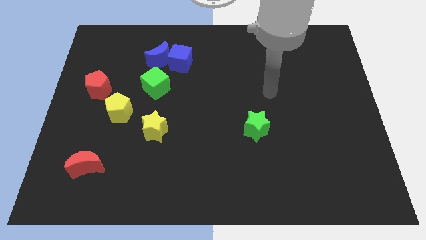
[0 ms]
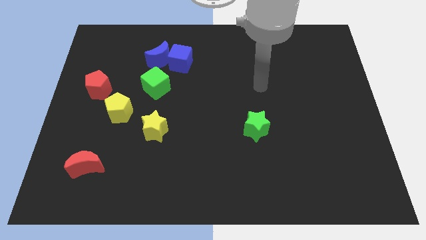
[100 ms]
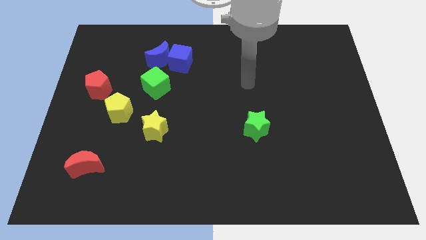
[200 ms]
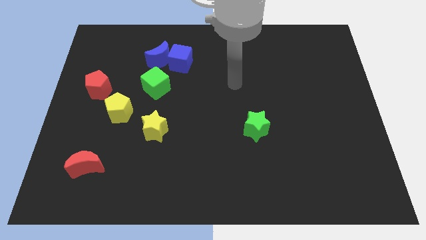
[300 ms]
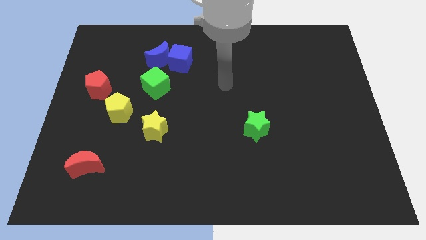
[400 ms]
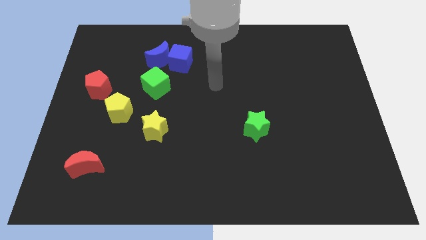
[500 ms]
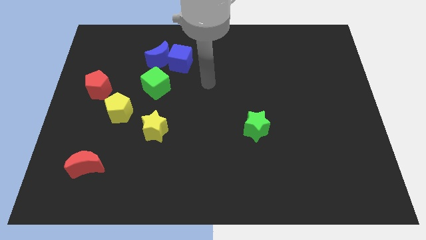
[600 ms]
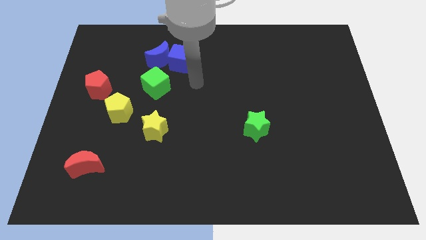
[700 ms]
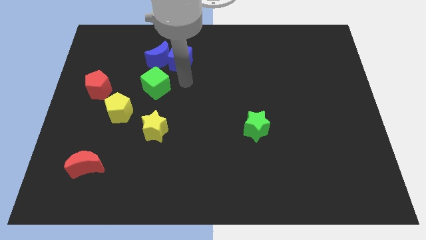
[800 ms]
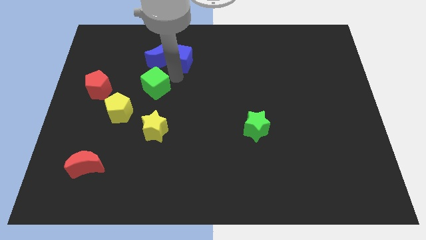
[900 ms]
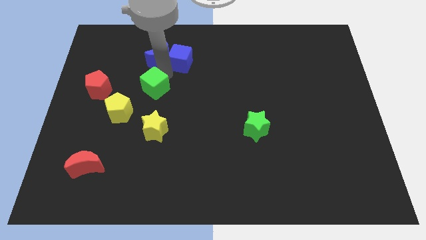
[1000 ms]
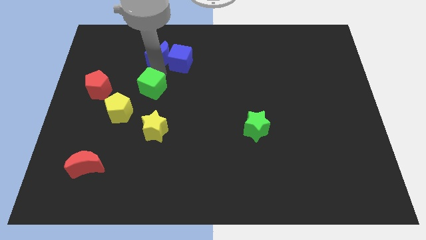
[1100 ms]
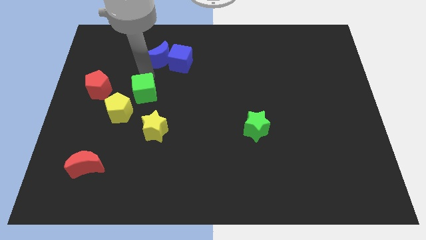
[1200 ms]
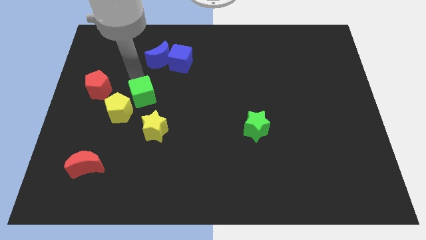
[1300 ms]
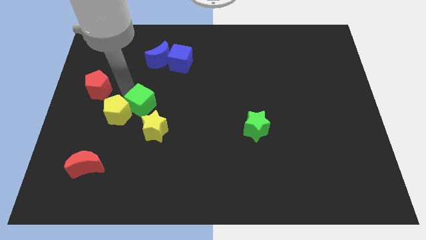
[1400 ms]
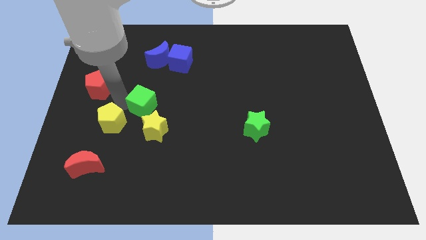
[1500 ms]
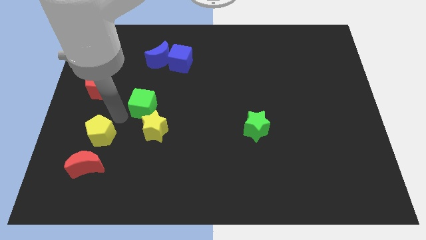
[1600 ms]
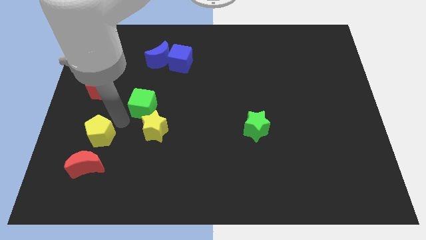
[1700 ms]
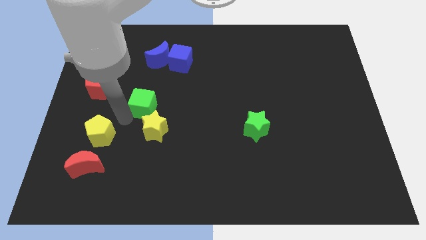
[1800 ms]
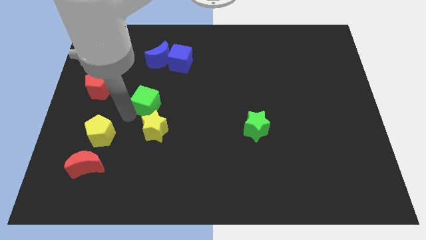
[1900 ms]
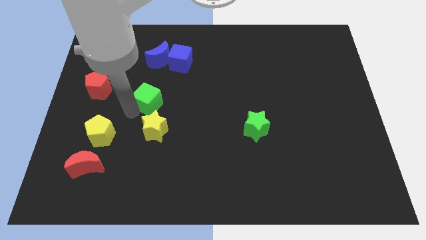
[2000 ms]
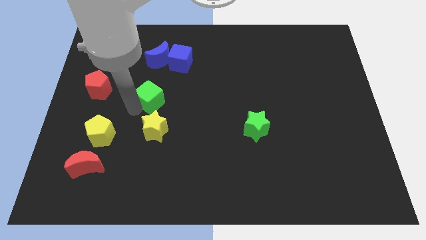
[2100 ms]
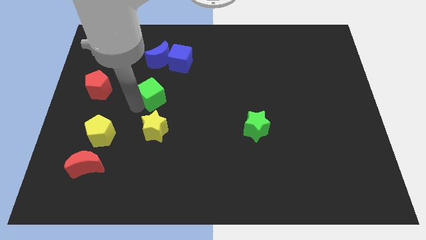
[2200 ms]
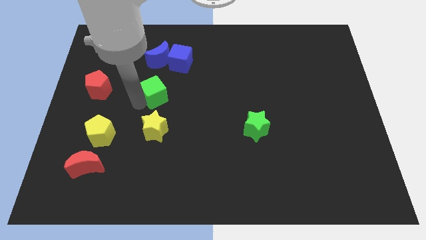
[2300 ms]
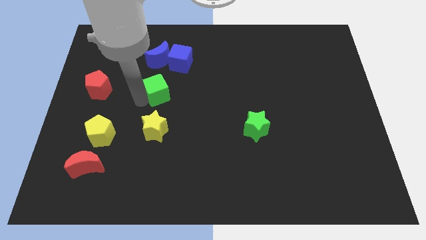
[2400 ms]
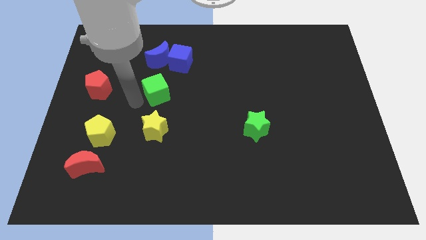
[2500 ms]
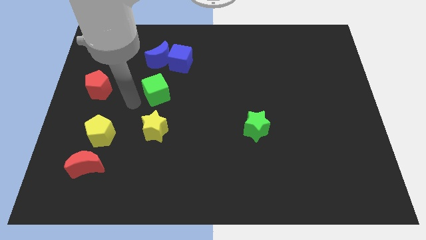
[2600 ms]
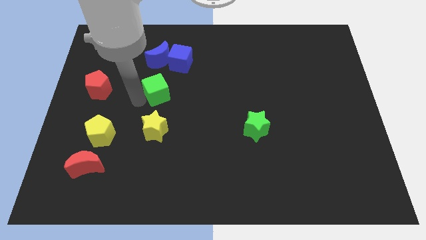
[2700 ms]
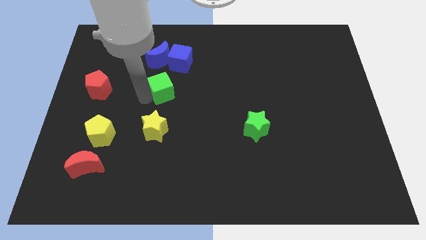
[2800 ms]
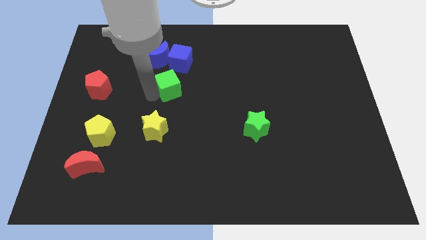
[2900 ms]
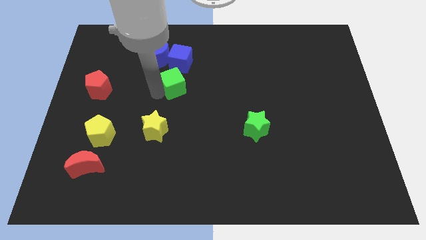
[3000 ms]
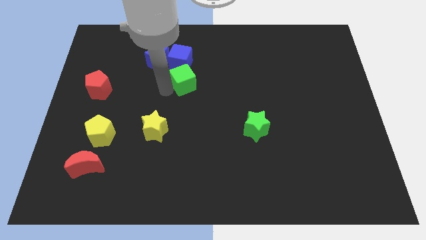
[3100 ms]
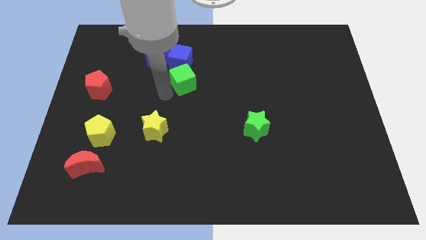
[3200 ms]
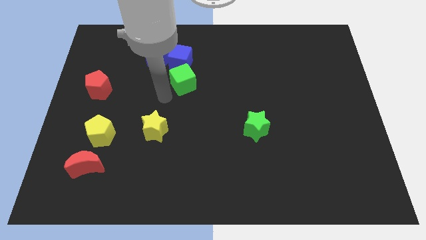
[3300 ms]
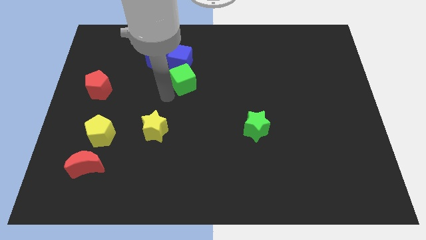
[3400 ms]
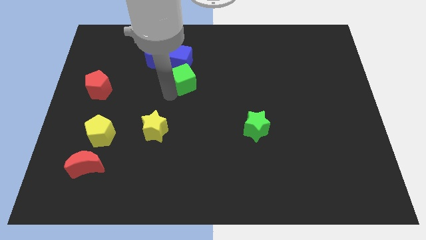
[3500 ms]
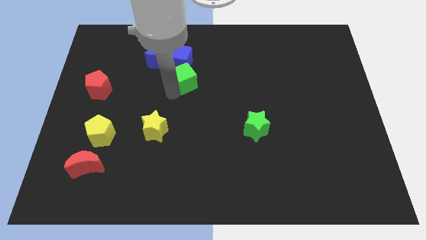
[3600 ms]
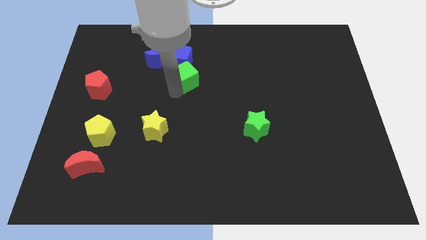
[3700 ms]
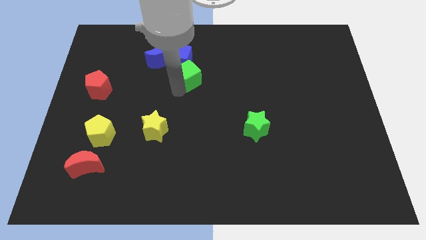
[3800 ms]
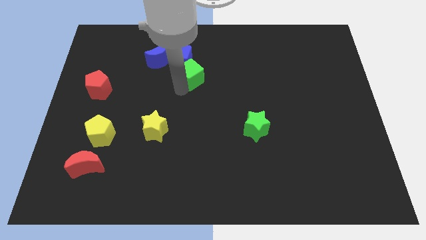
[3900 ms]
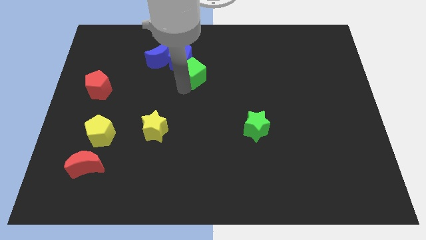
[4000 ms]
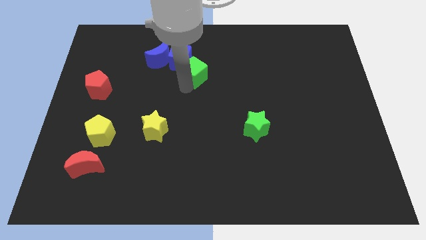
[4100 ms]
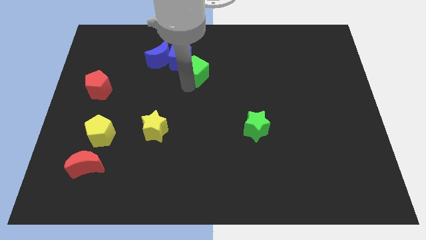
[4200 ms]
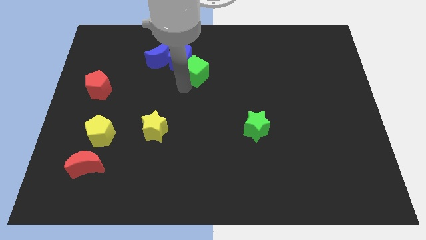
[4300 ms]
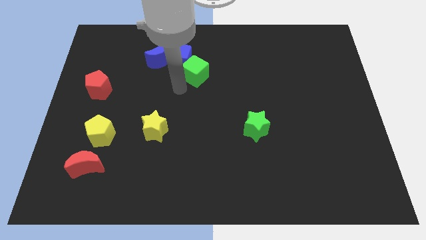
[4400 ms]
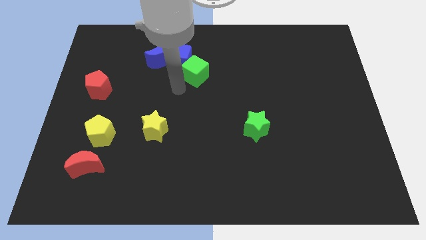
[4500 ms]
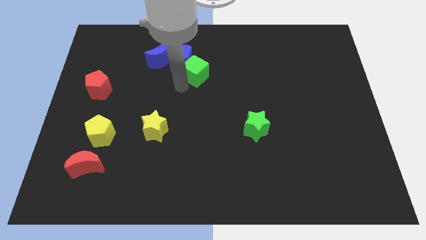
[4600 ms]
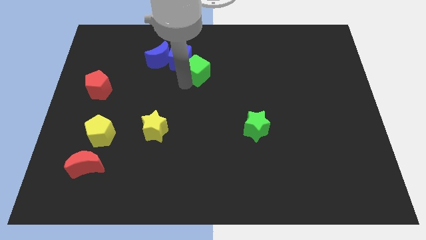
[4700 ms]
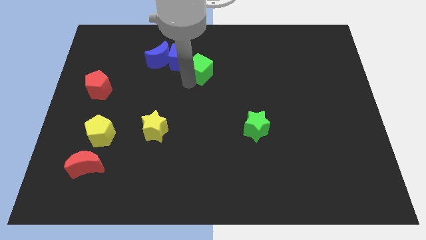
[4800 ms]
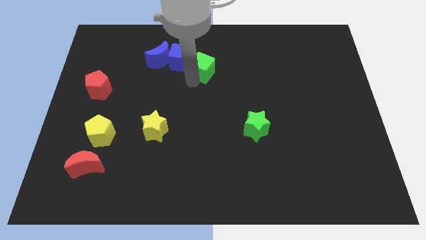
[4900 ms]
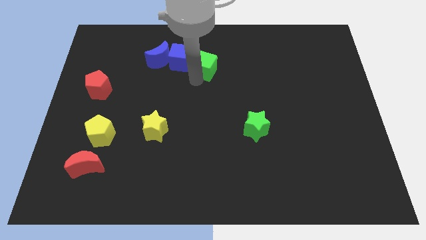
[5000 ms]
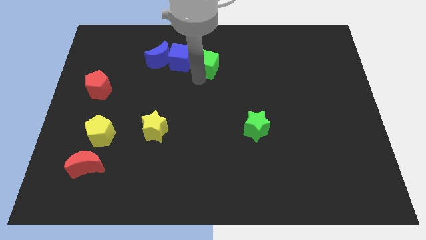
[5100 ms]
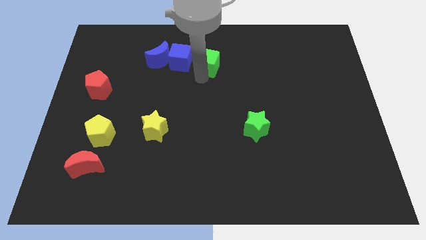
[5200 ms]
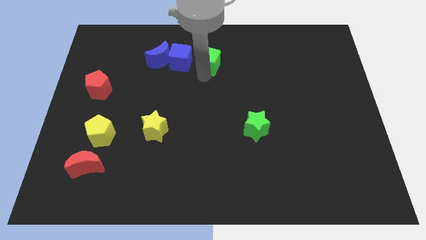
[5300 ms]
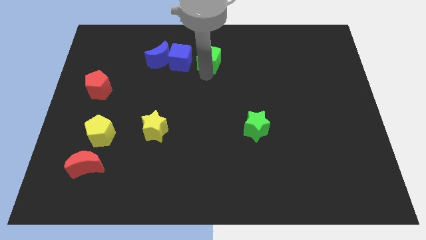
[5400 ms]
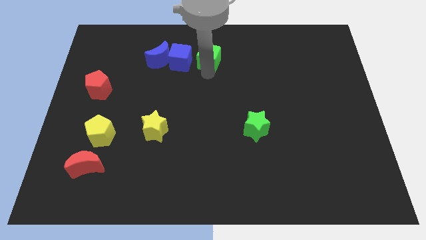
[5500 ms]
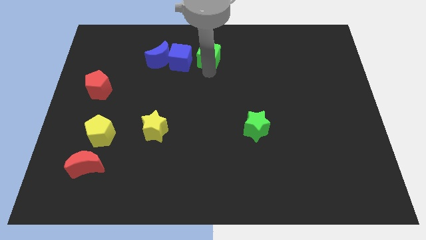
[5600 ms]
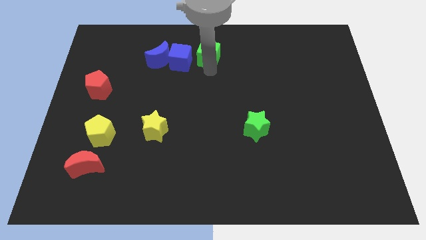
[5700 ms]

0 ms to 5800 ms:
put the green cube to the top
